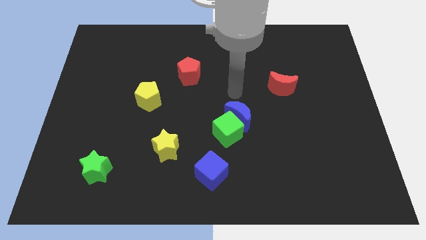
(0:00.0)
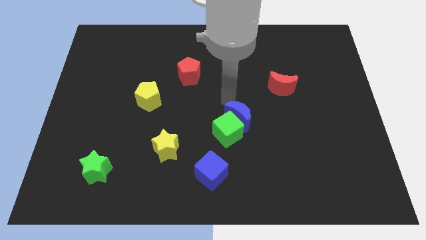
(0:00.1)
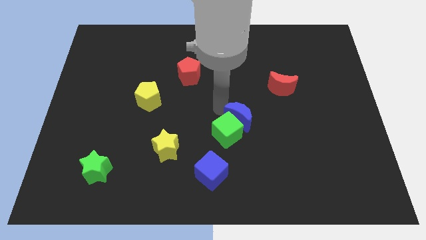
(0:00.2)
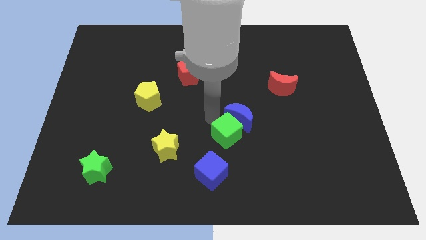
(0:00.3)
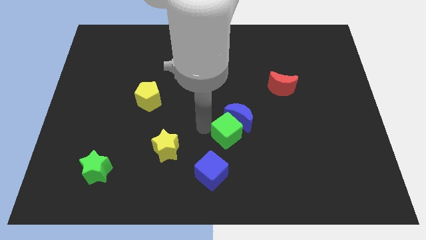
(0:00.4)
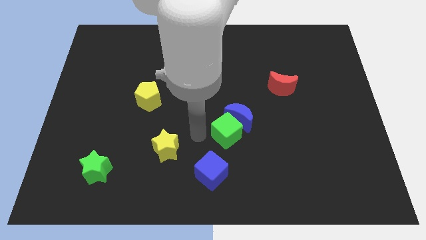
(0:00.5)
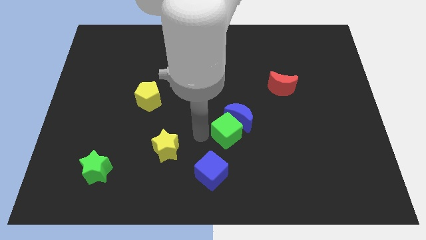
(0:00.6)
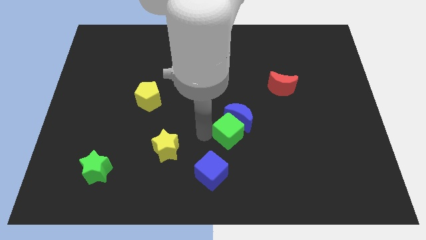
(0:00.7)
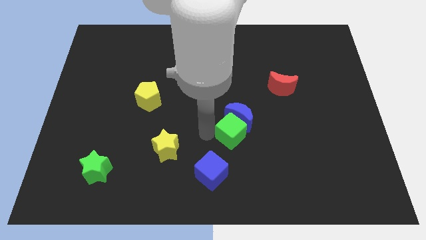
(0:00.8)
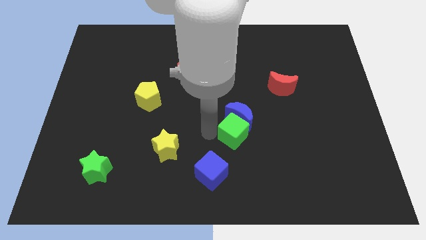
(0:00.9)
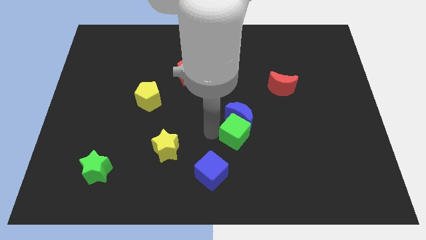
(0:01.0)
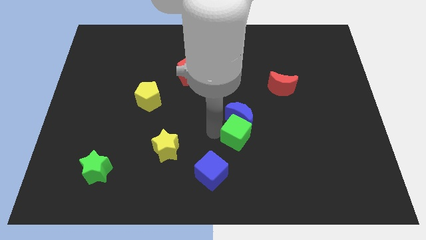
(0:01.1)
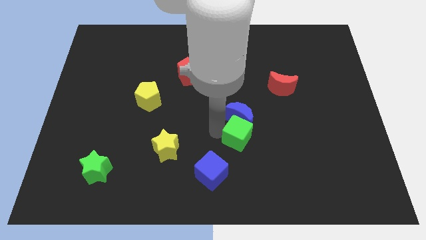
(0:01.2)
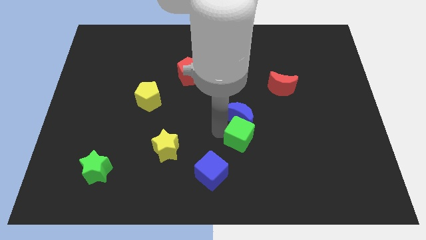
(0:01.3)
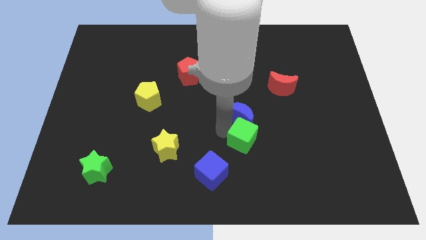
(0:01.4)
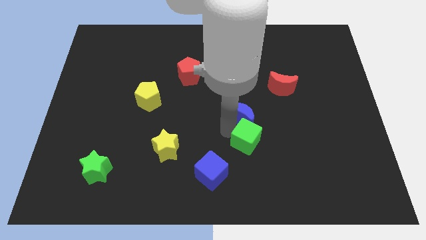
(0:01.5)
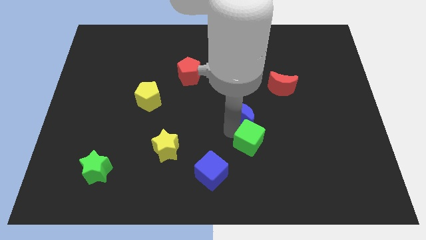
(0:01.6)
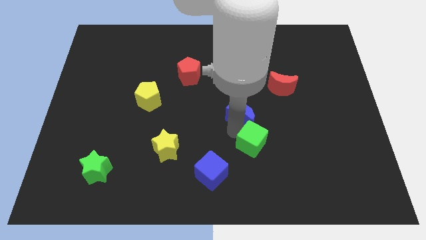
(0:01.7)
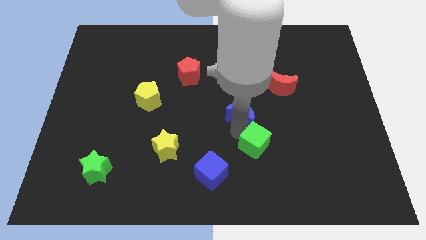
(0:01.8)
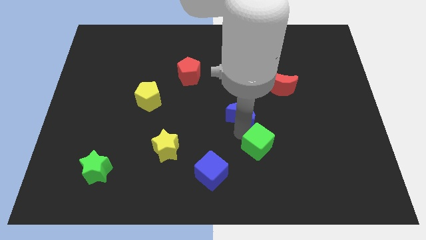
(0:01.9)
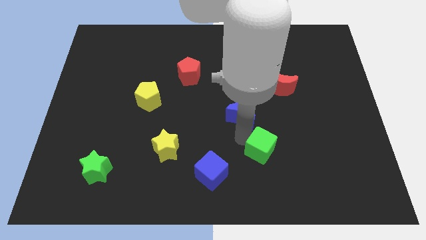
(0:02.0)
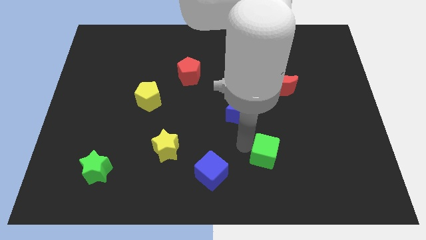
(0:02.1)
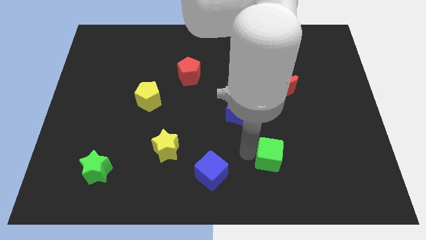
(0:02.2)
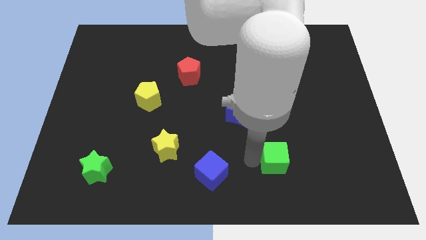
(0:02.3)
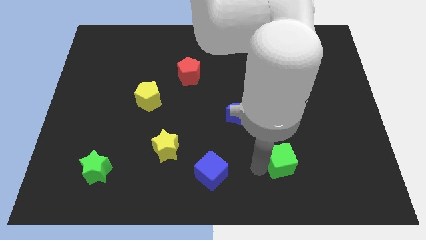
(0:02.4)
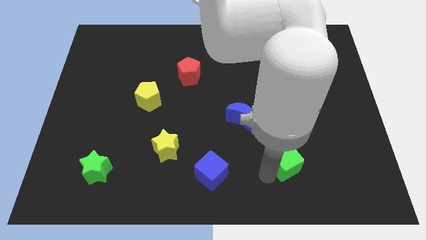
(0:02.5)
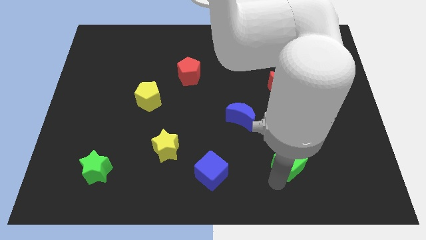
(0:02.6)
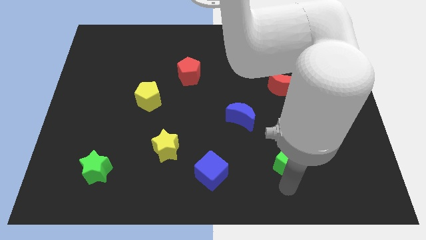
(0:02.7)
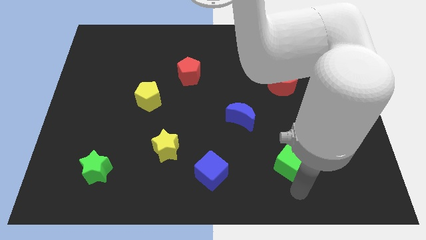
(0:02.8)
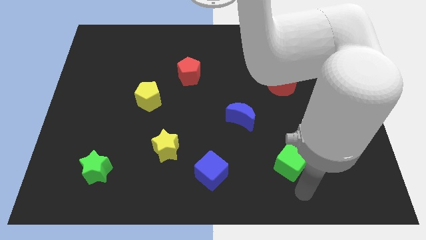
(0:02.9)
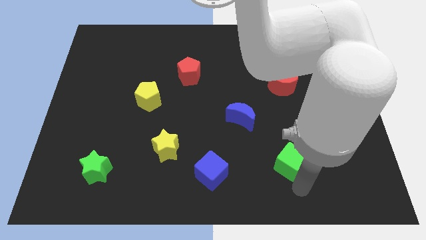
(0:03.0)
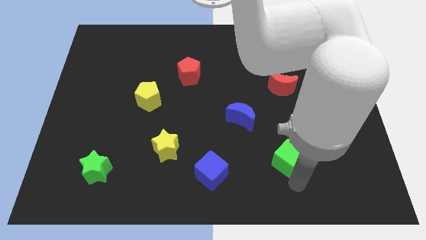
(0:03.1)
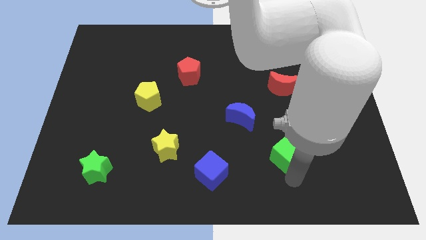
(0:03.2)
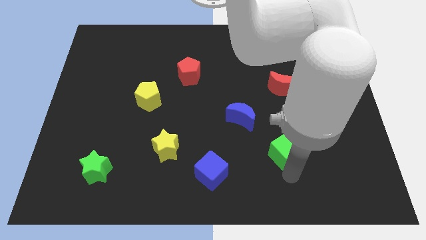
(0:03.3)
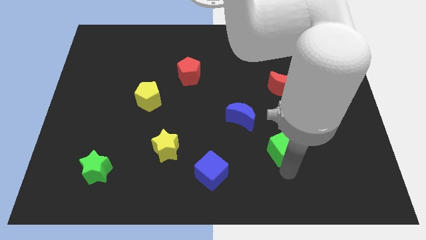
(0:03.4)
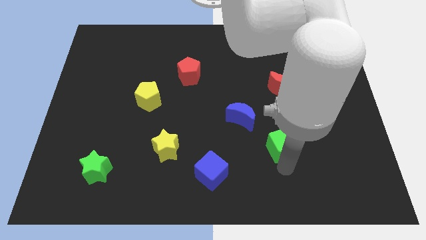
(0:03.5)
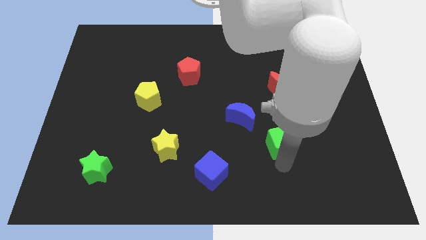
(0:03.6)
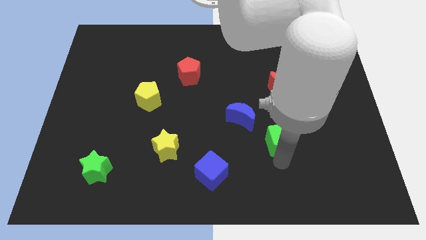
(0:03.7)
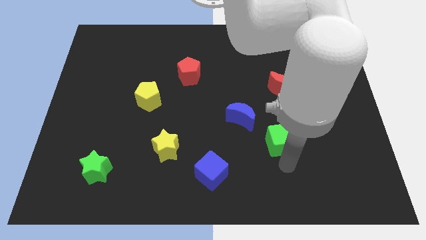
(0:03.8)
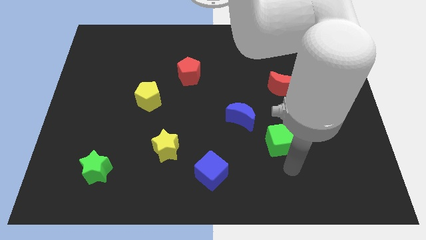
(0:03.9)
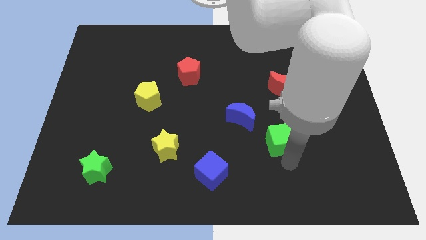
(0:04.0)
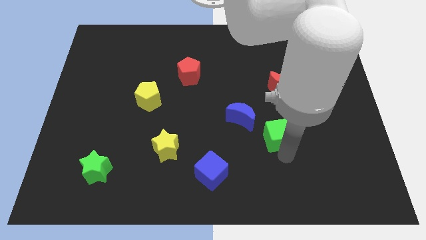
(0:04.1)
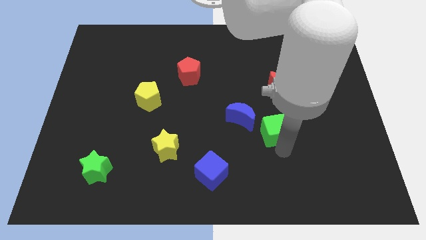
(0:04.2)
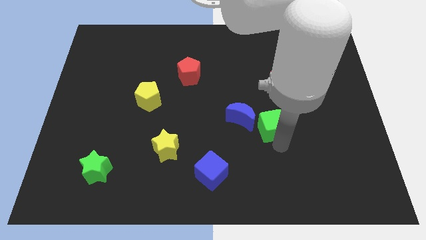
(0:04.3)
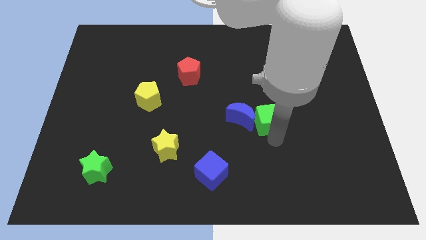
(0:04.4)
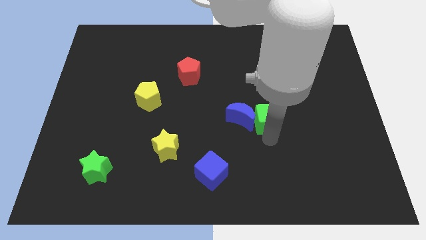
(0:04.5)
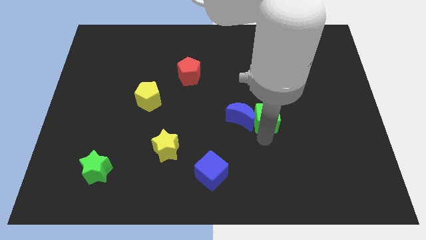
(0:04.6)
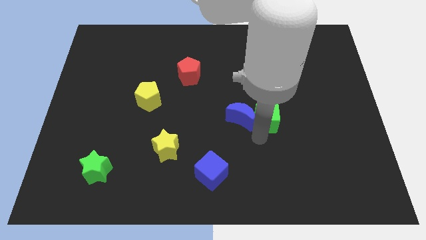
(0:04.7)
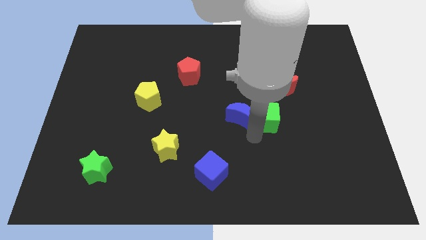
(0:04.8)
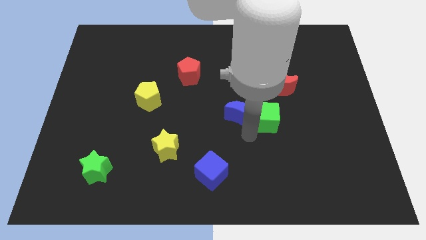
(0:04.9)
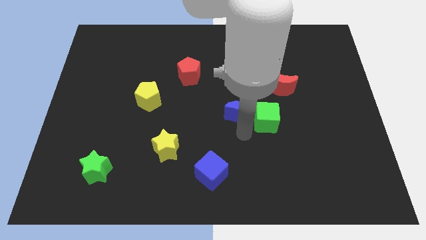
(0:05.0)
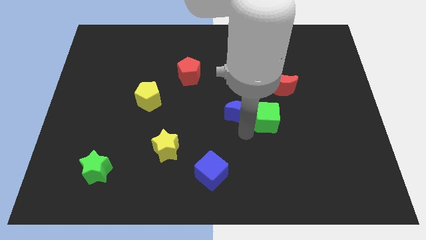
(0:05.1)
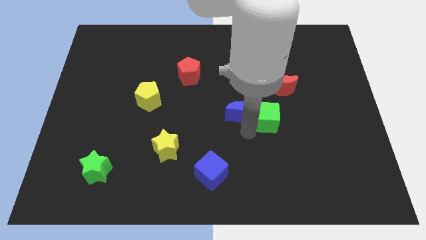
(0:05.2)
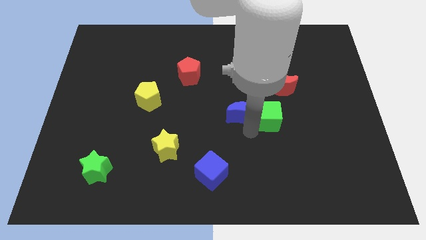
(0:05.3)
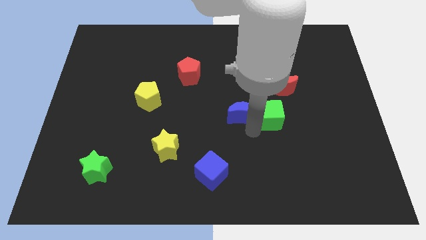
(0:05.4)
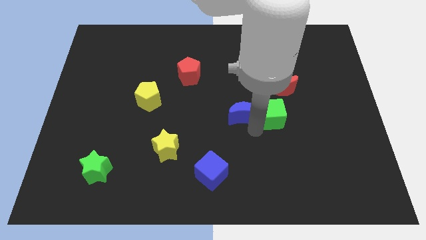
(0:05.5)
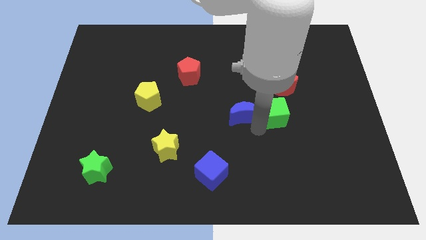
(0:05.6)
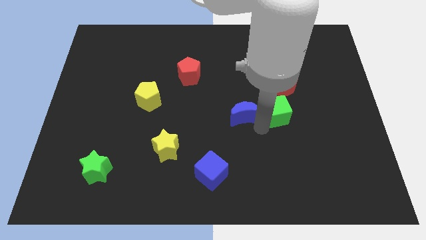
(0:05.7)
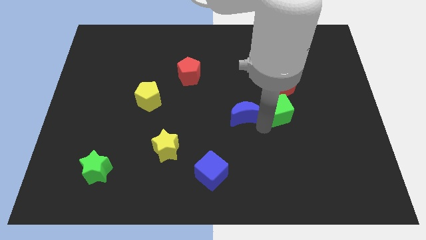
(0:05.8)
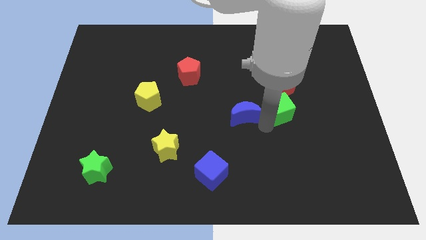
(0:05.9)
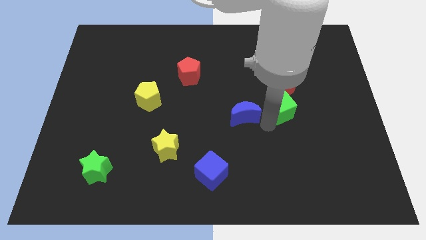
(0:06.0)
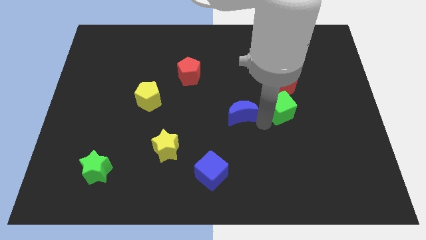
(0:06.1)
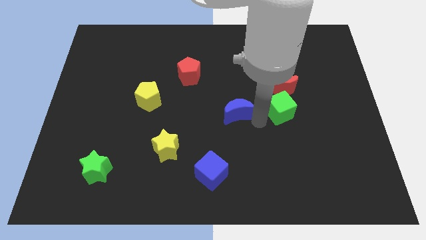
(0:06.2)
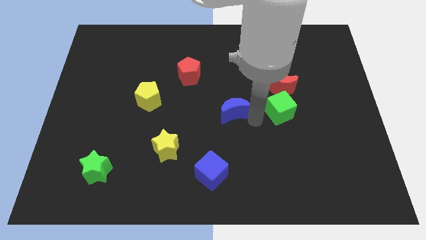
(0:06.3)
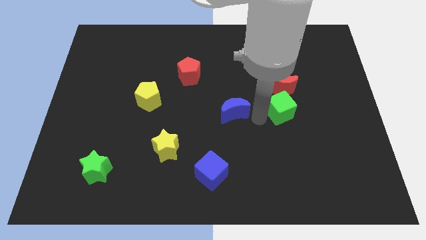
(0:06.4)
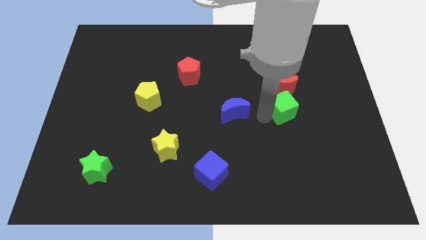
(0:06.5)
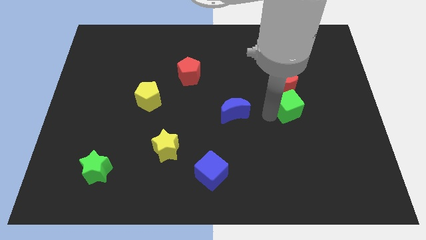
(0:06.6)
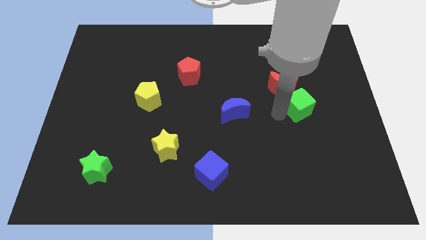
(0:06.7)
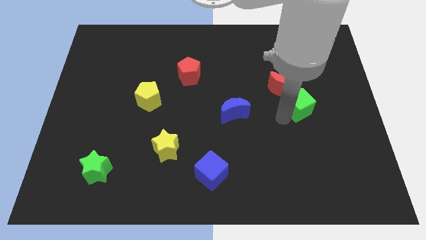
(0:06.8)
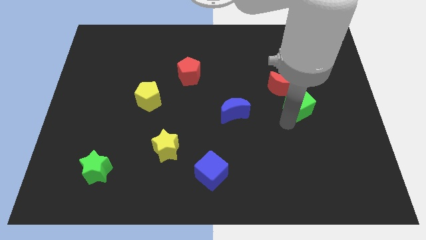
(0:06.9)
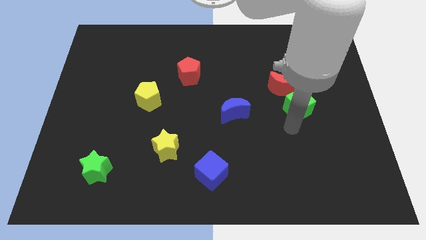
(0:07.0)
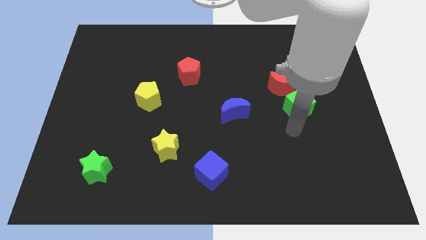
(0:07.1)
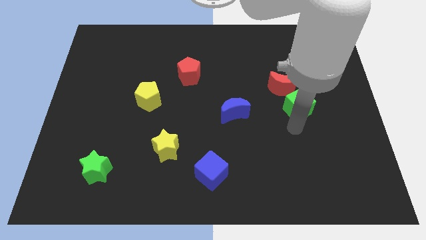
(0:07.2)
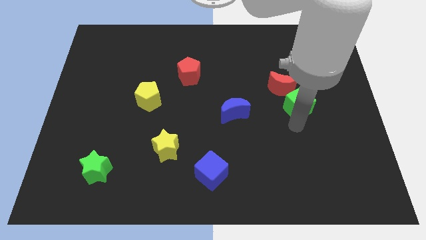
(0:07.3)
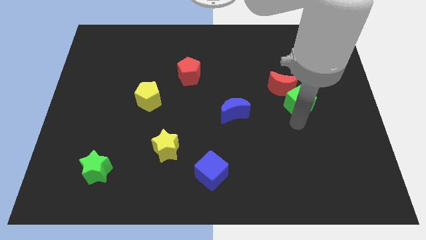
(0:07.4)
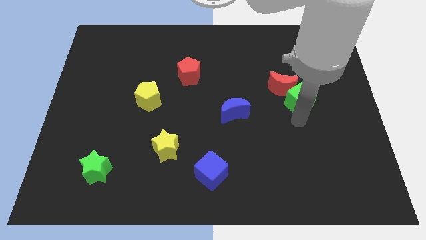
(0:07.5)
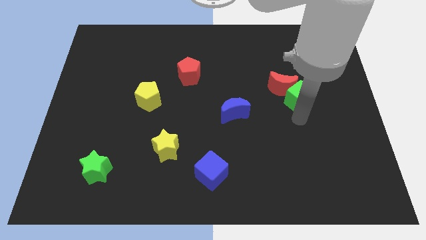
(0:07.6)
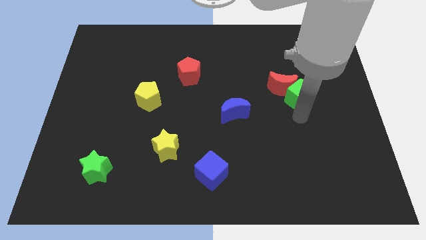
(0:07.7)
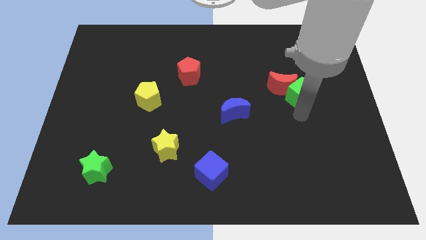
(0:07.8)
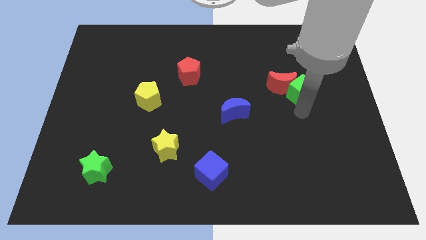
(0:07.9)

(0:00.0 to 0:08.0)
push the green cube diagonally up and to the right

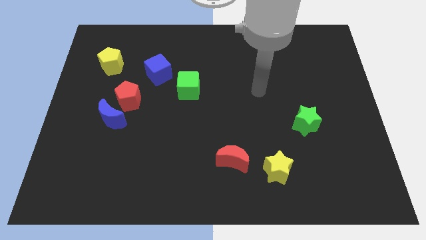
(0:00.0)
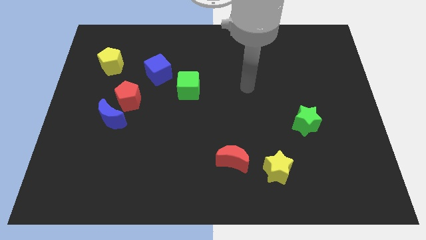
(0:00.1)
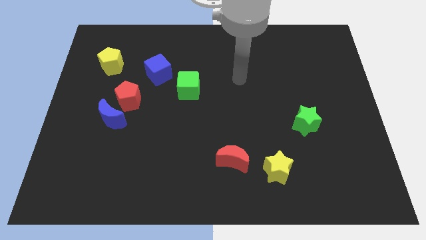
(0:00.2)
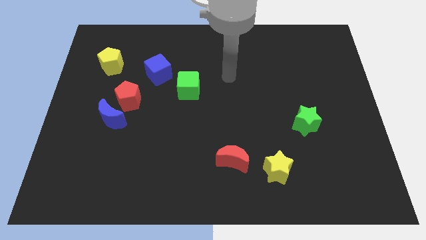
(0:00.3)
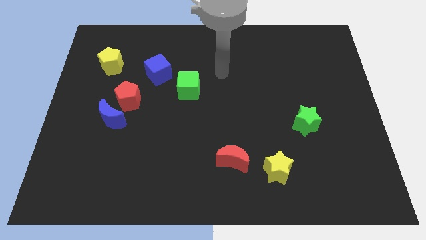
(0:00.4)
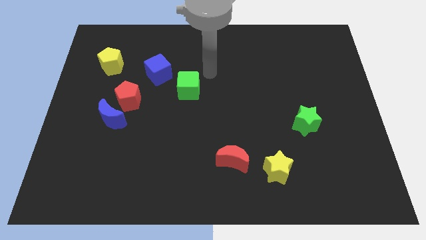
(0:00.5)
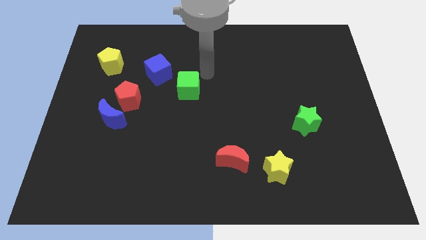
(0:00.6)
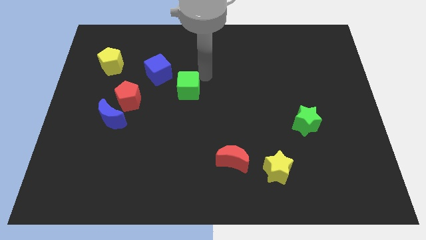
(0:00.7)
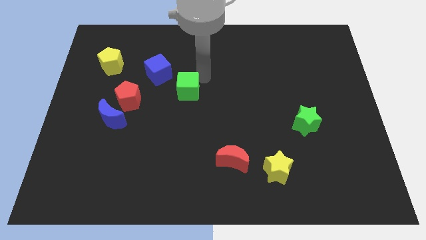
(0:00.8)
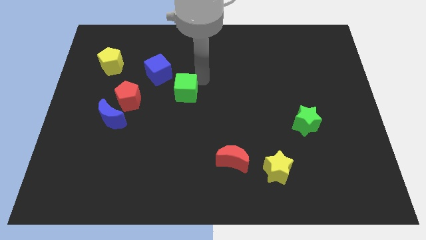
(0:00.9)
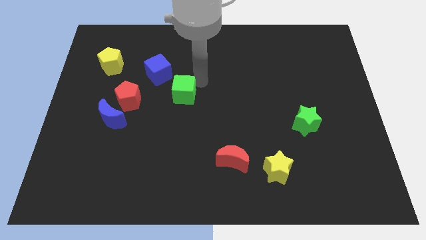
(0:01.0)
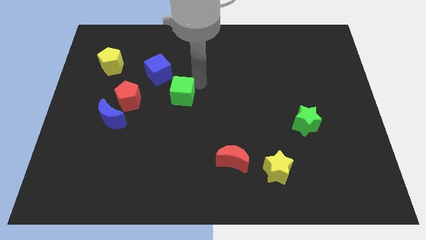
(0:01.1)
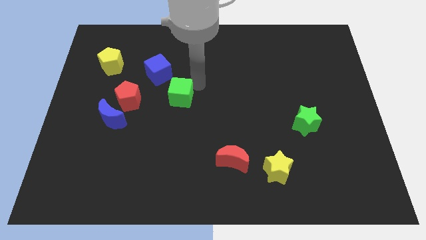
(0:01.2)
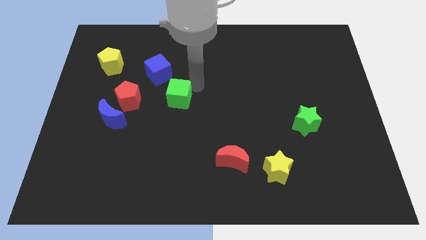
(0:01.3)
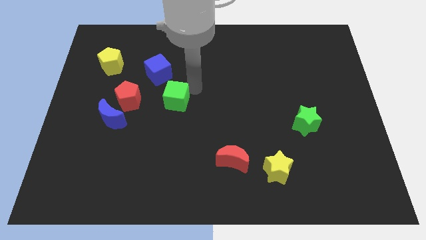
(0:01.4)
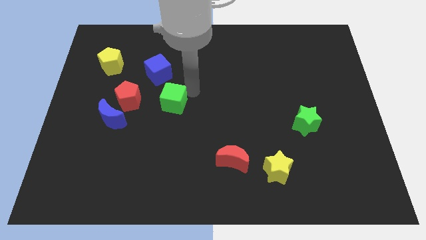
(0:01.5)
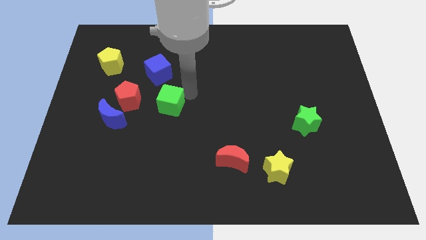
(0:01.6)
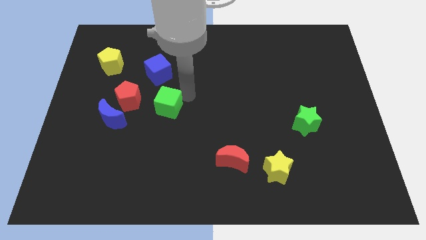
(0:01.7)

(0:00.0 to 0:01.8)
move the green cube downwards and to the left a little bit
